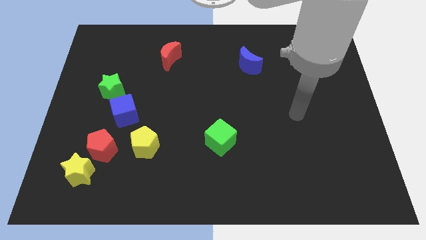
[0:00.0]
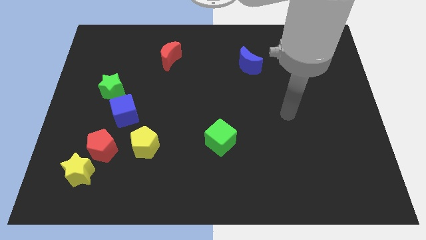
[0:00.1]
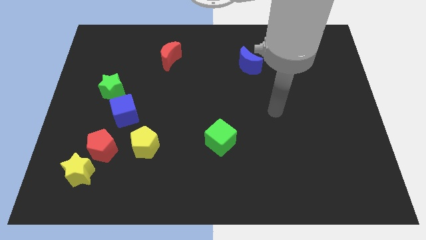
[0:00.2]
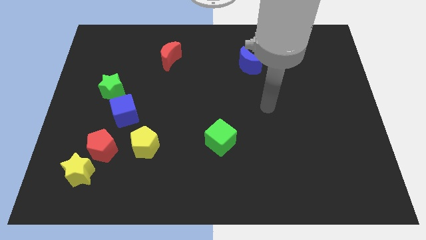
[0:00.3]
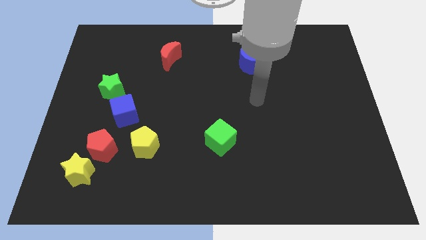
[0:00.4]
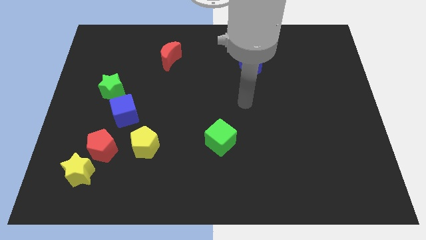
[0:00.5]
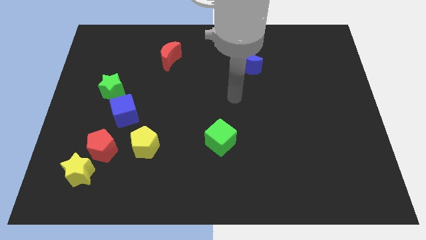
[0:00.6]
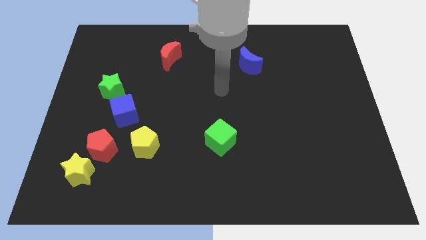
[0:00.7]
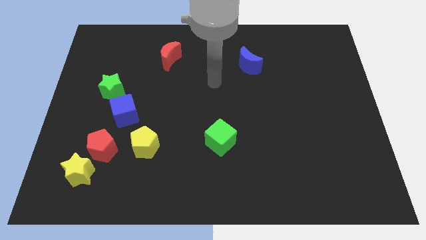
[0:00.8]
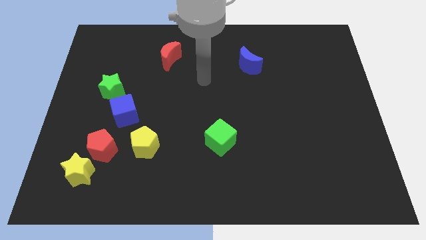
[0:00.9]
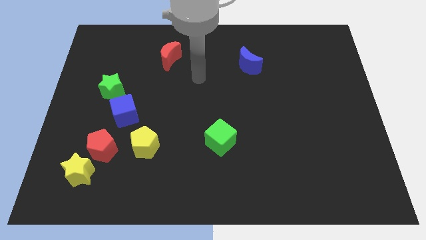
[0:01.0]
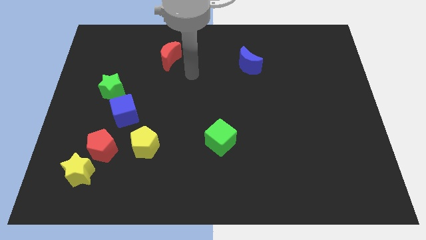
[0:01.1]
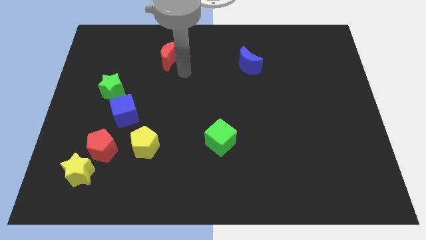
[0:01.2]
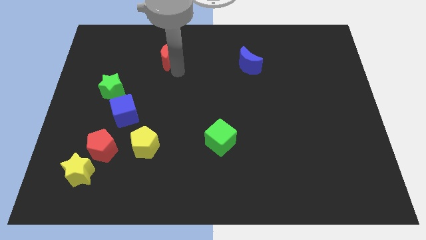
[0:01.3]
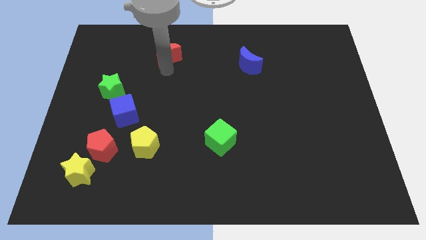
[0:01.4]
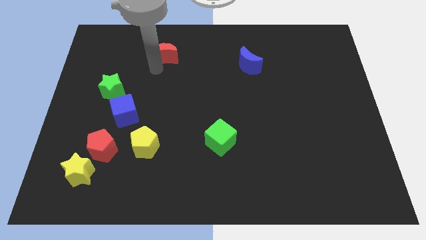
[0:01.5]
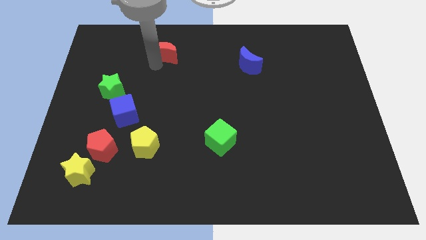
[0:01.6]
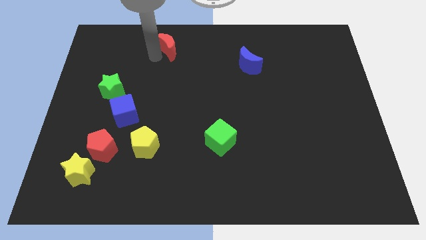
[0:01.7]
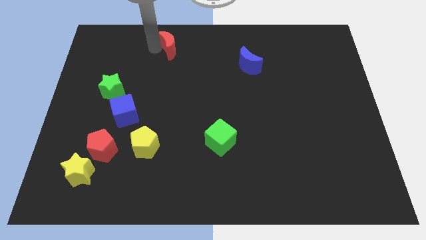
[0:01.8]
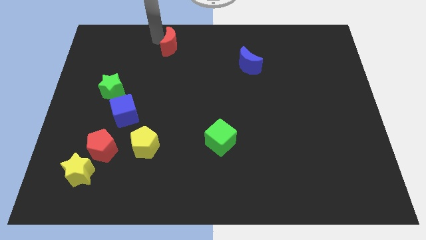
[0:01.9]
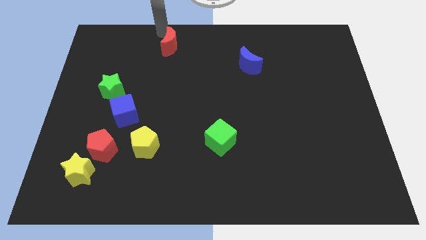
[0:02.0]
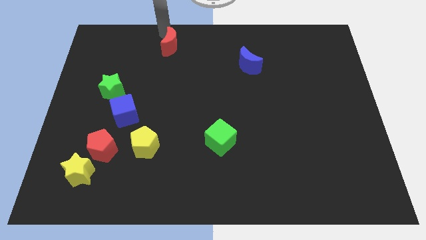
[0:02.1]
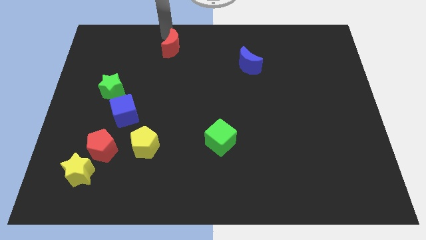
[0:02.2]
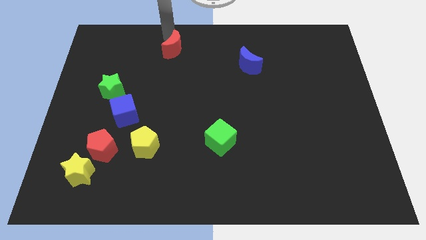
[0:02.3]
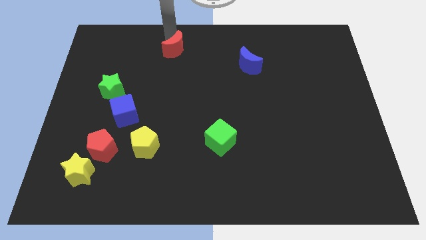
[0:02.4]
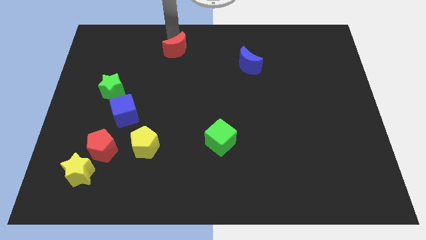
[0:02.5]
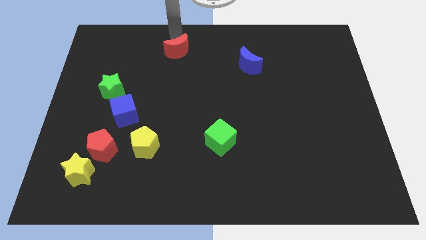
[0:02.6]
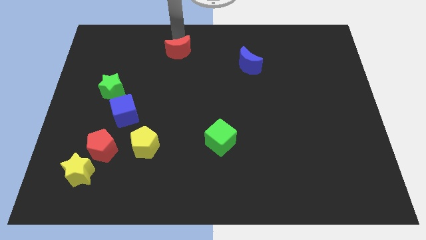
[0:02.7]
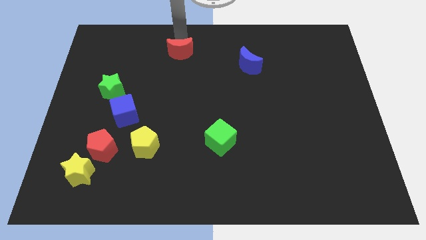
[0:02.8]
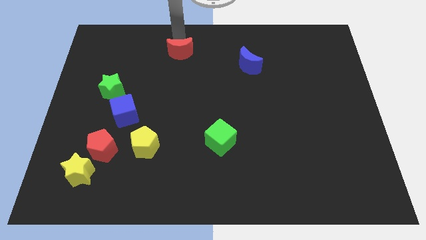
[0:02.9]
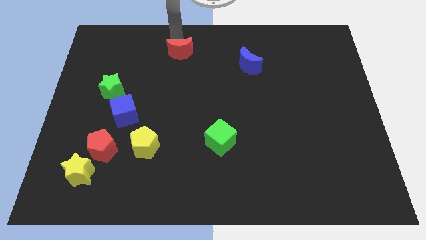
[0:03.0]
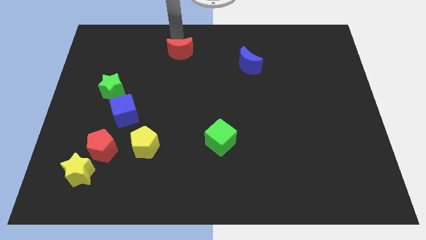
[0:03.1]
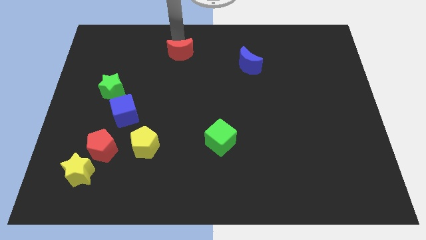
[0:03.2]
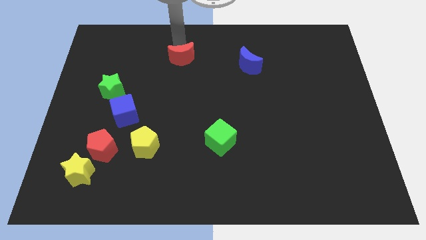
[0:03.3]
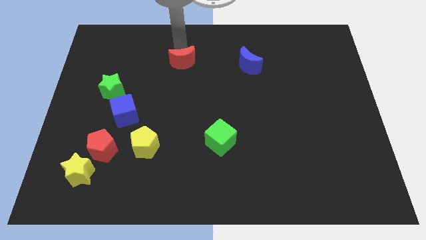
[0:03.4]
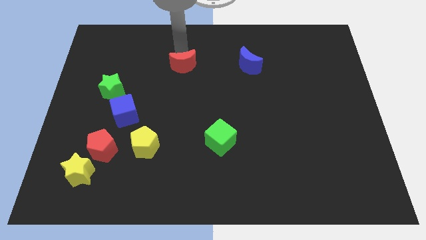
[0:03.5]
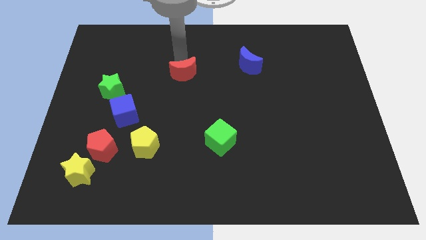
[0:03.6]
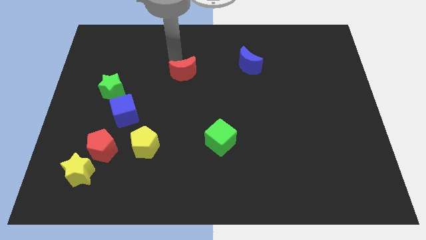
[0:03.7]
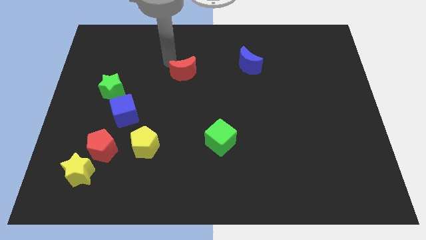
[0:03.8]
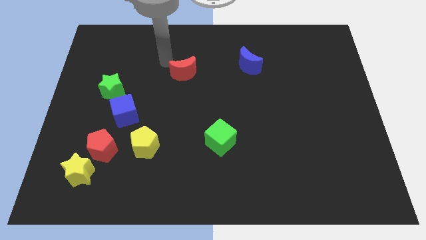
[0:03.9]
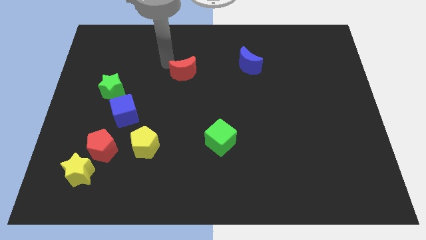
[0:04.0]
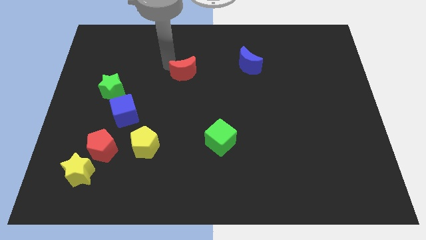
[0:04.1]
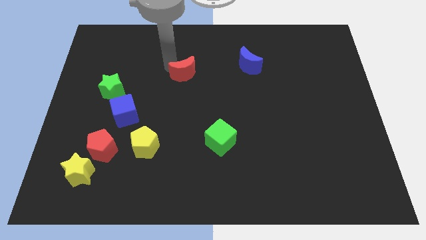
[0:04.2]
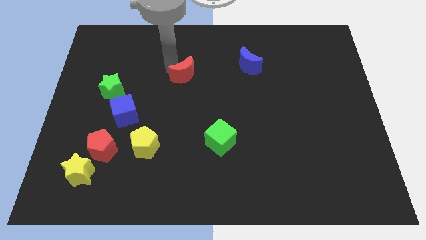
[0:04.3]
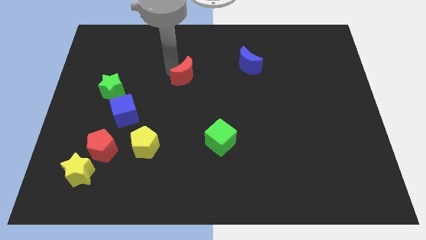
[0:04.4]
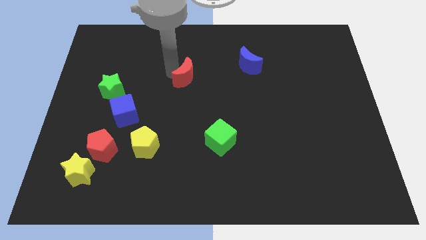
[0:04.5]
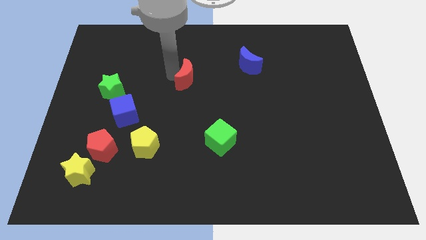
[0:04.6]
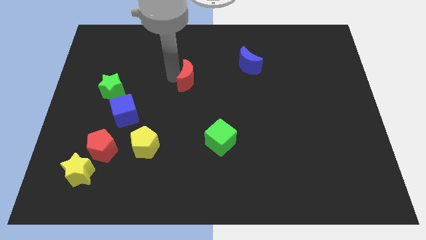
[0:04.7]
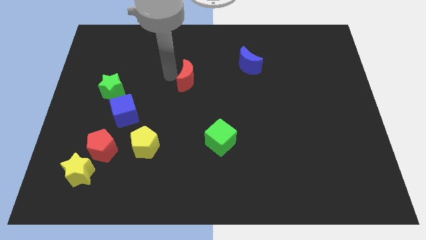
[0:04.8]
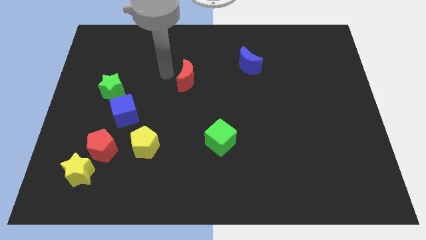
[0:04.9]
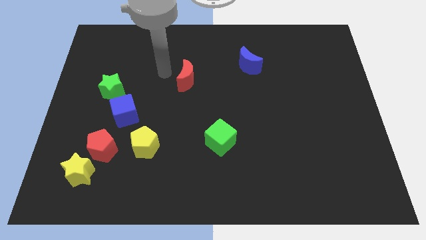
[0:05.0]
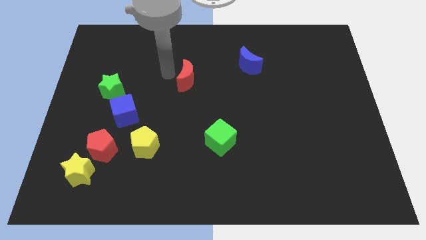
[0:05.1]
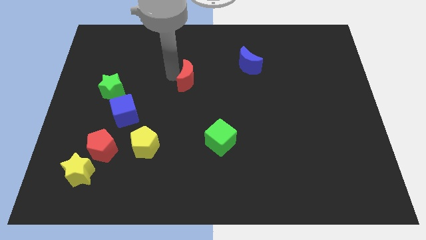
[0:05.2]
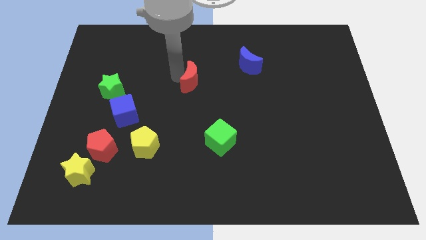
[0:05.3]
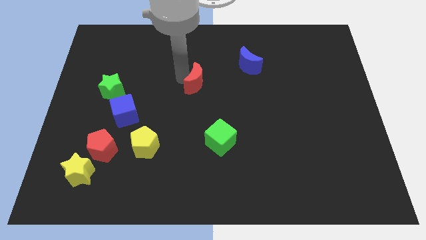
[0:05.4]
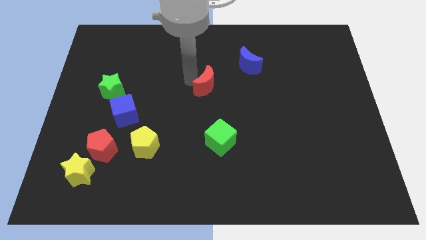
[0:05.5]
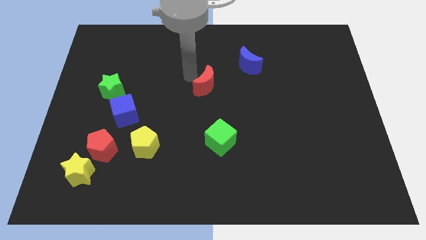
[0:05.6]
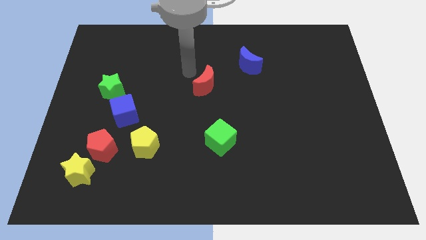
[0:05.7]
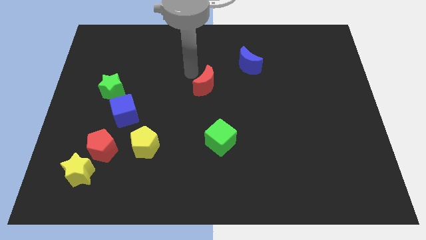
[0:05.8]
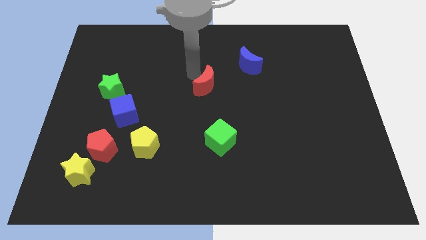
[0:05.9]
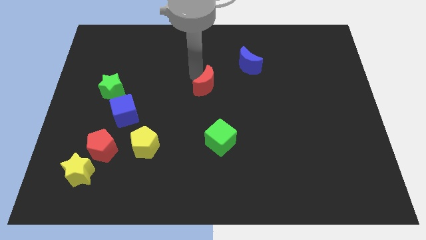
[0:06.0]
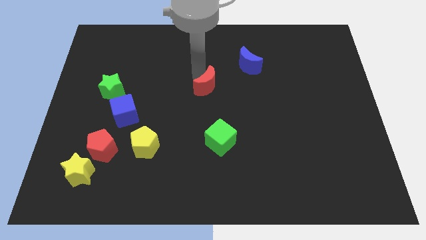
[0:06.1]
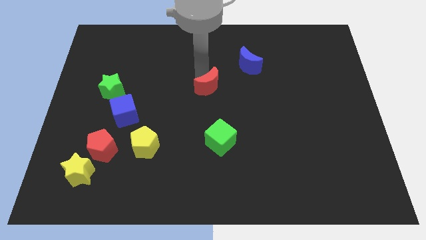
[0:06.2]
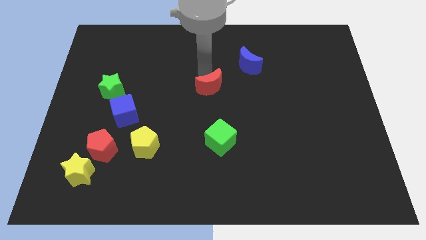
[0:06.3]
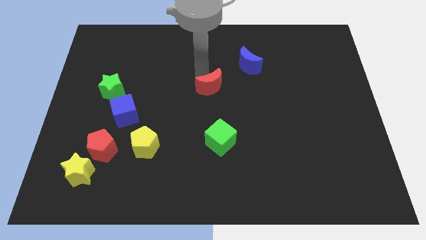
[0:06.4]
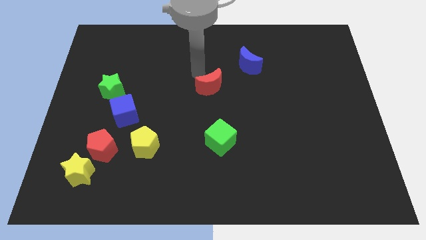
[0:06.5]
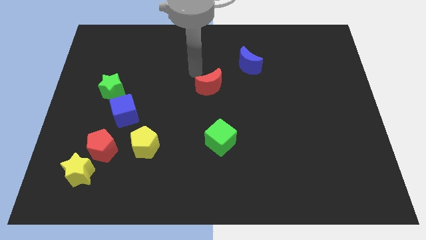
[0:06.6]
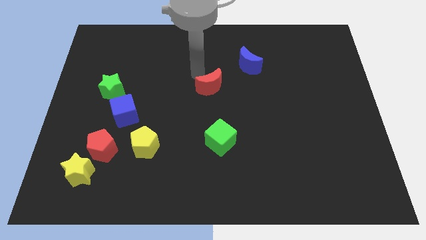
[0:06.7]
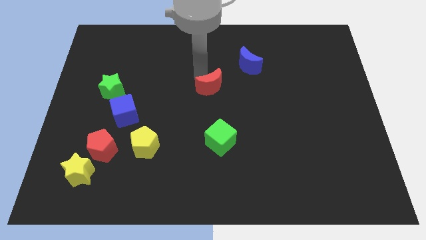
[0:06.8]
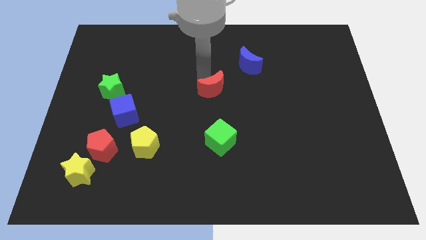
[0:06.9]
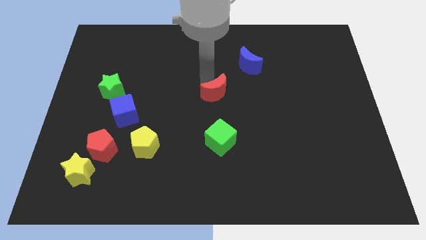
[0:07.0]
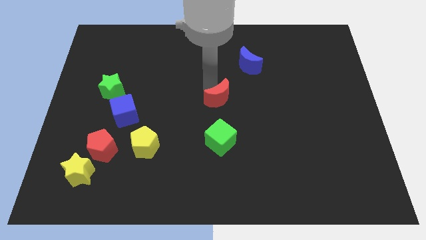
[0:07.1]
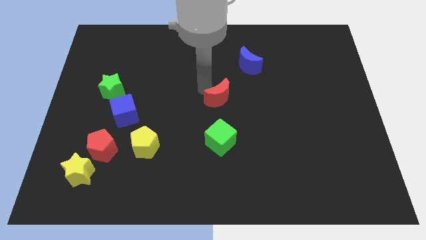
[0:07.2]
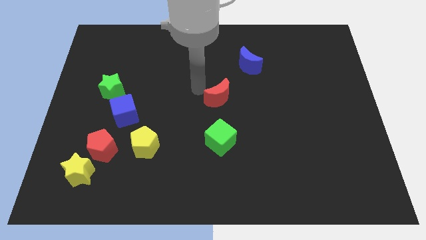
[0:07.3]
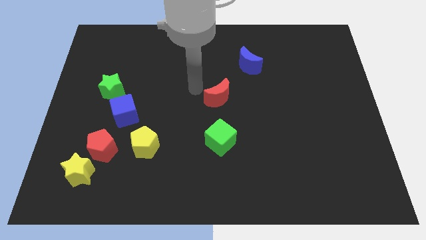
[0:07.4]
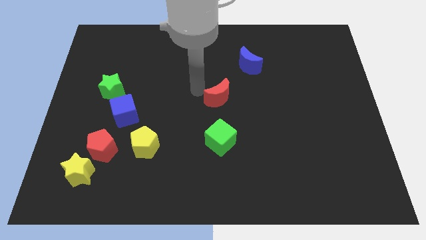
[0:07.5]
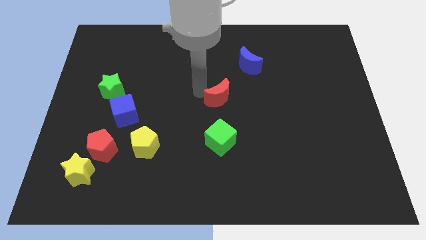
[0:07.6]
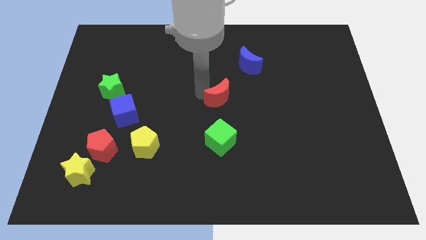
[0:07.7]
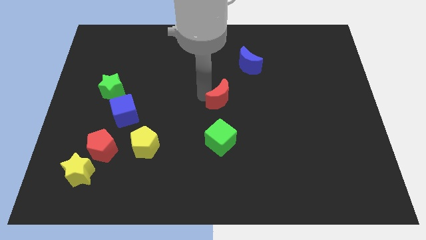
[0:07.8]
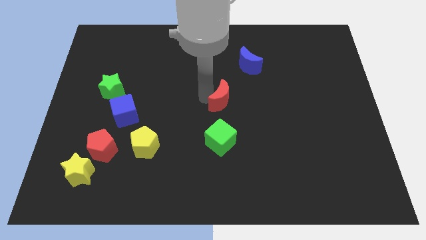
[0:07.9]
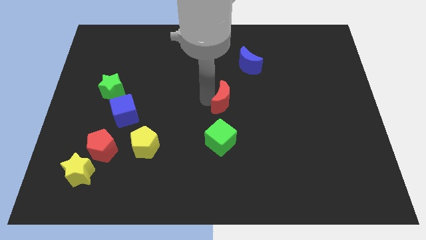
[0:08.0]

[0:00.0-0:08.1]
push the red moon diagonally down and right

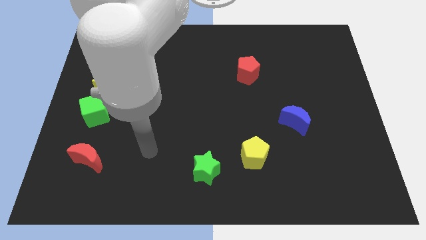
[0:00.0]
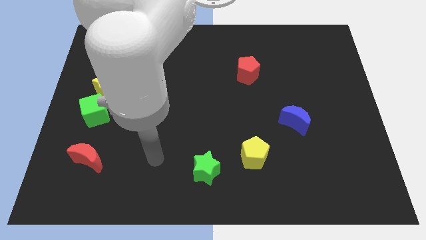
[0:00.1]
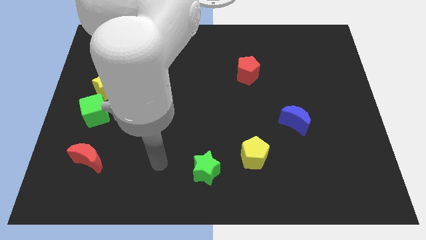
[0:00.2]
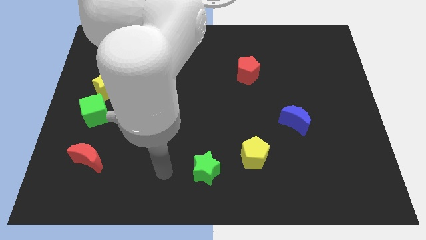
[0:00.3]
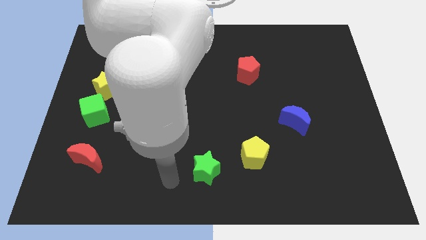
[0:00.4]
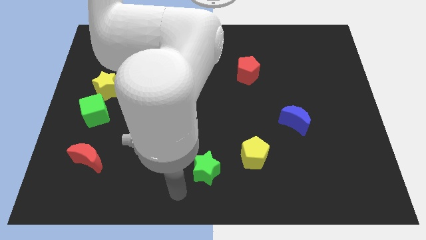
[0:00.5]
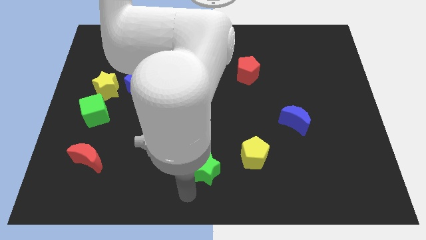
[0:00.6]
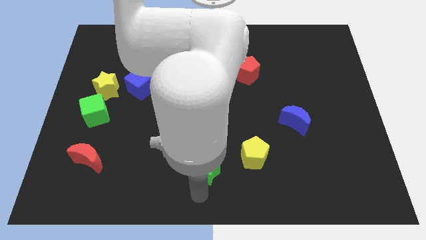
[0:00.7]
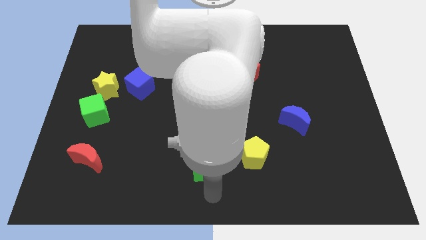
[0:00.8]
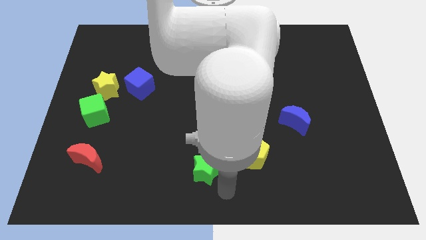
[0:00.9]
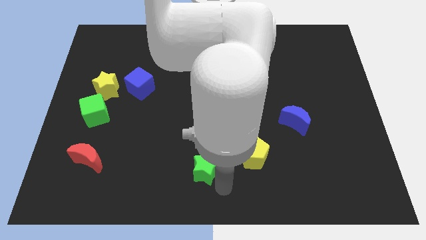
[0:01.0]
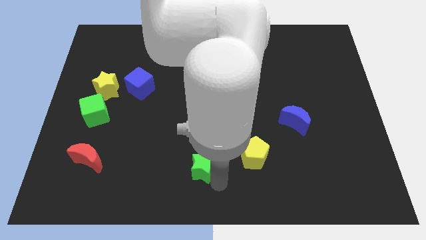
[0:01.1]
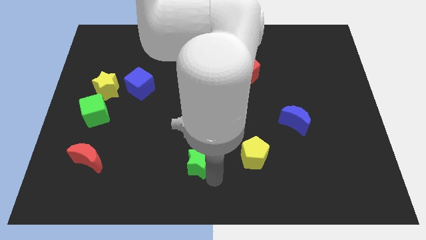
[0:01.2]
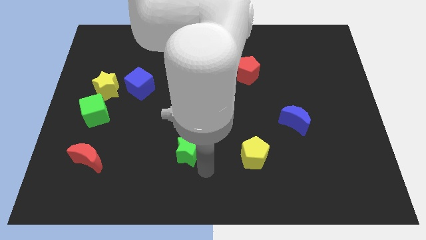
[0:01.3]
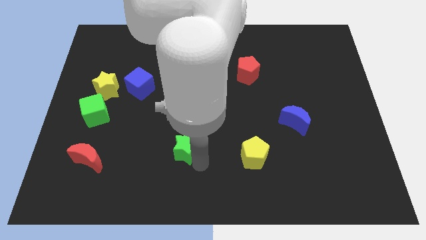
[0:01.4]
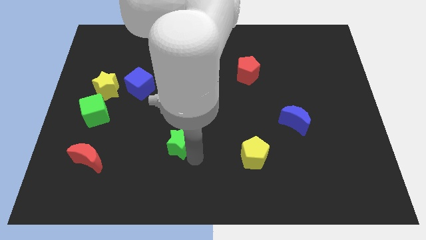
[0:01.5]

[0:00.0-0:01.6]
move the green star up and left diagonally a little bit
